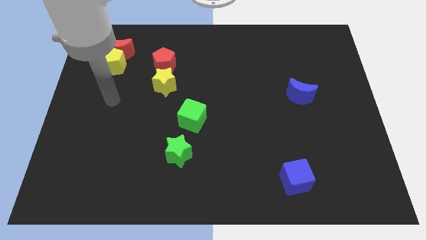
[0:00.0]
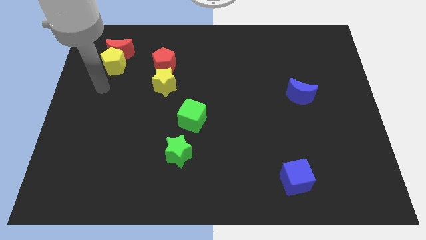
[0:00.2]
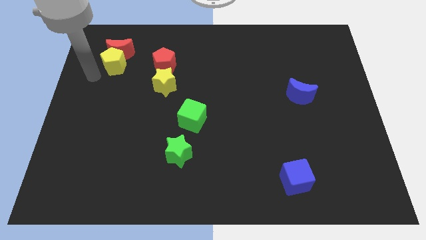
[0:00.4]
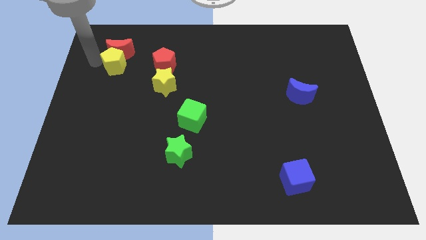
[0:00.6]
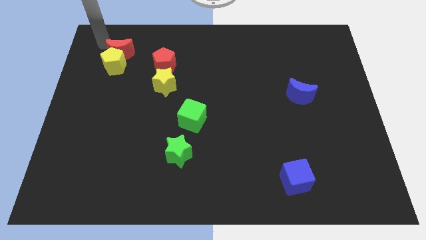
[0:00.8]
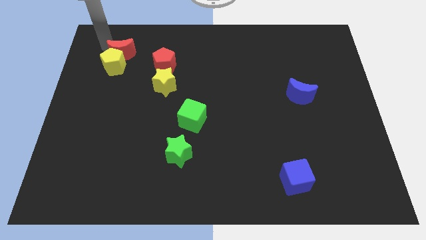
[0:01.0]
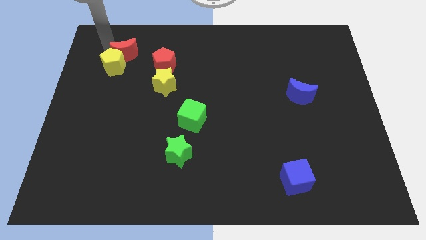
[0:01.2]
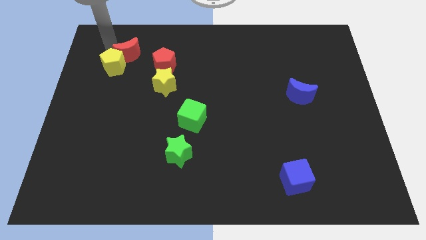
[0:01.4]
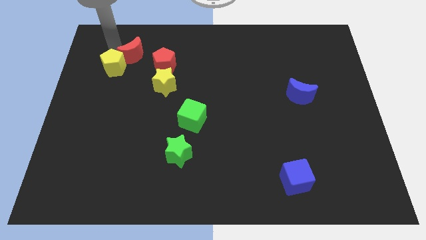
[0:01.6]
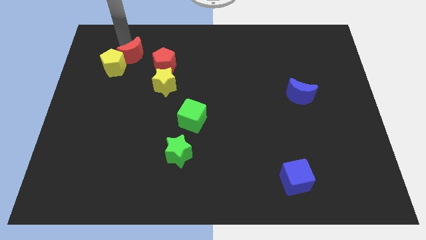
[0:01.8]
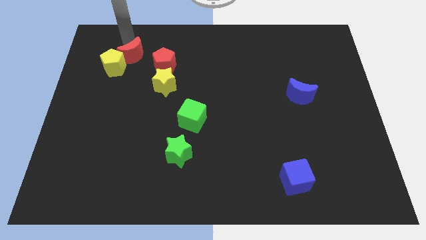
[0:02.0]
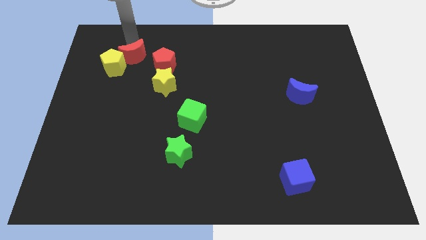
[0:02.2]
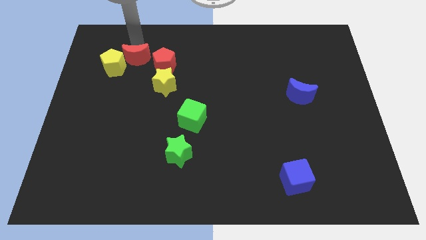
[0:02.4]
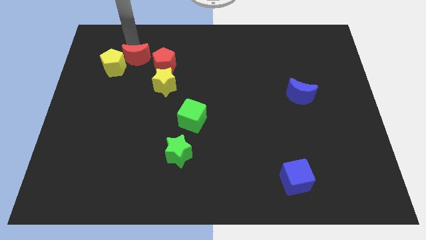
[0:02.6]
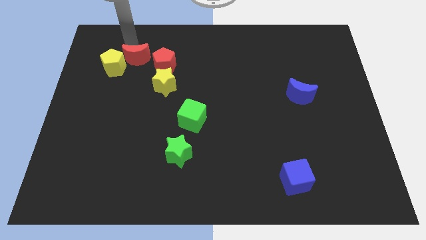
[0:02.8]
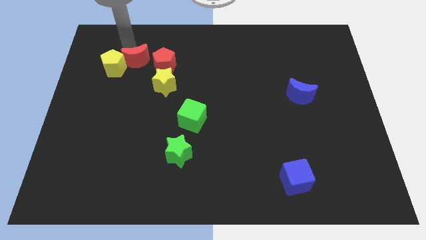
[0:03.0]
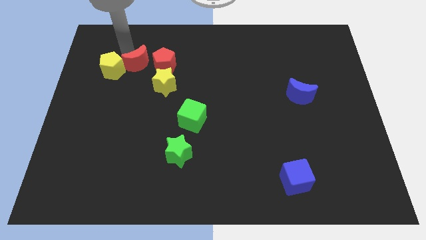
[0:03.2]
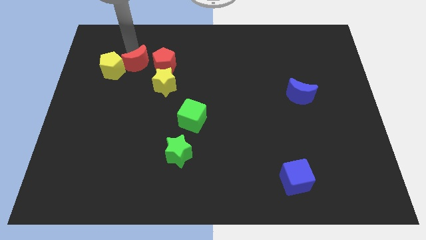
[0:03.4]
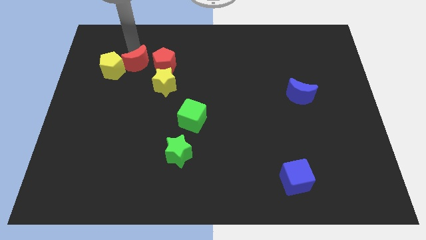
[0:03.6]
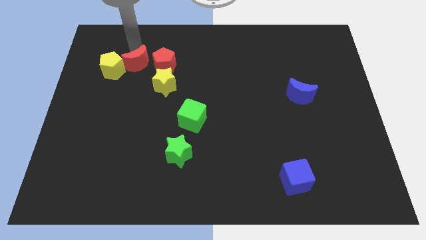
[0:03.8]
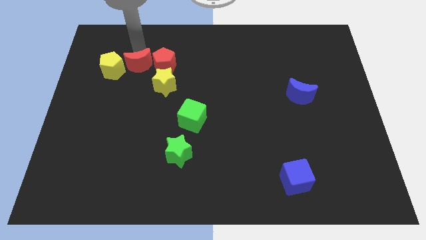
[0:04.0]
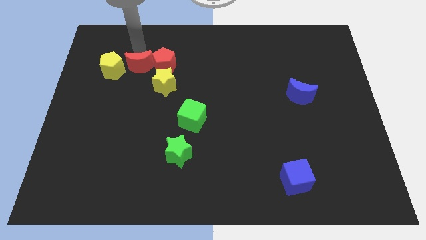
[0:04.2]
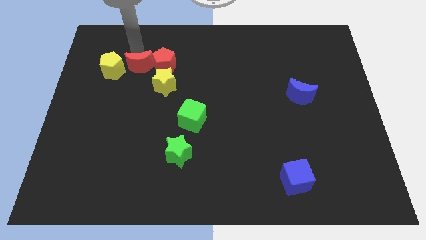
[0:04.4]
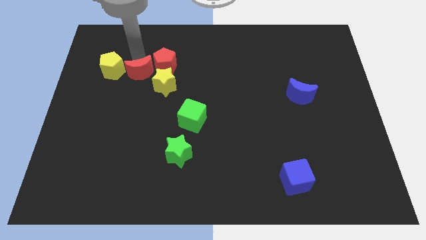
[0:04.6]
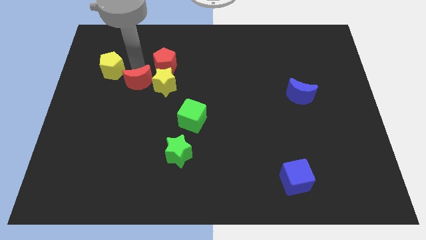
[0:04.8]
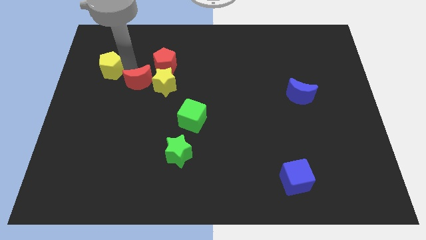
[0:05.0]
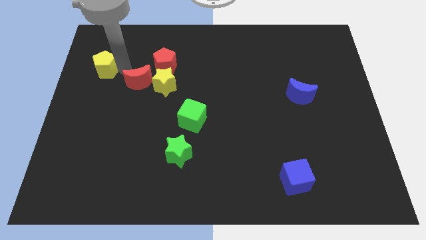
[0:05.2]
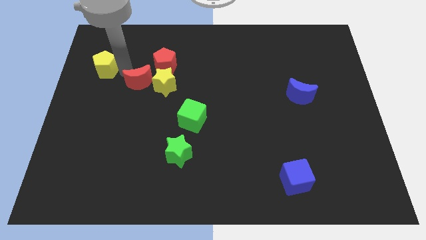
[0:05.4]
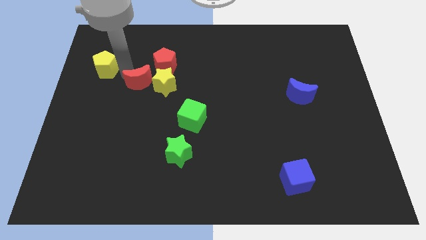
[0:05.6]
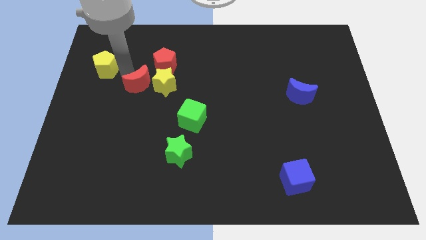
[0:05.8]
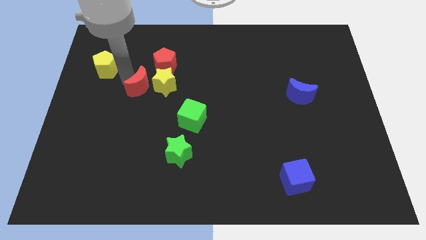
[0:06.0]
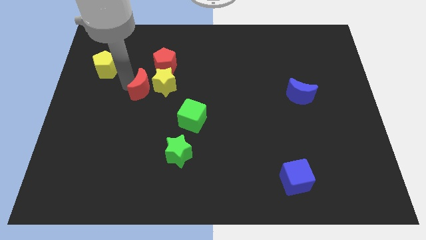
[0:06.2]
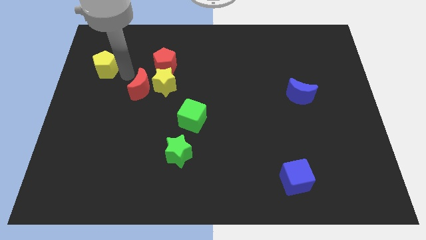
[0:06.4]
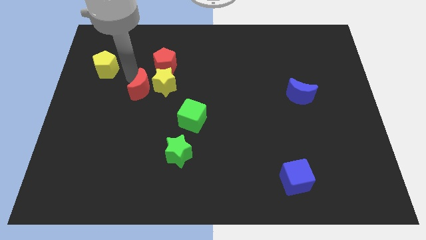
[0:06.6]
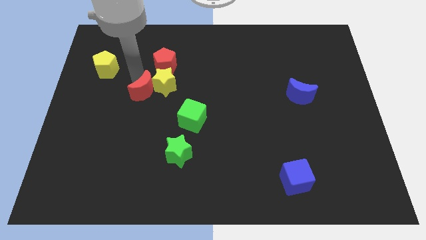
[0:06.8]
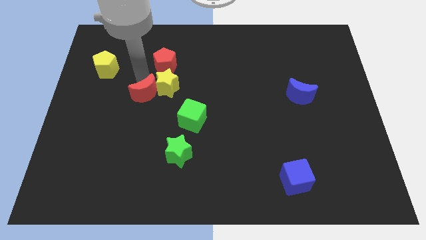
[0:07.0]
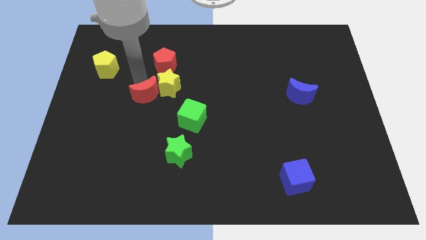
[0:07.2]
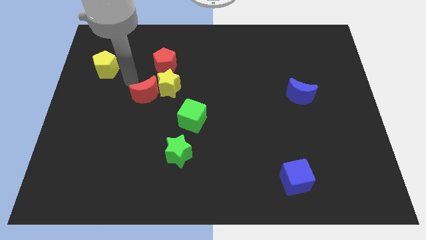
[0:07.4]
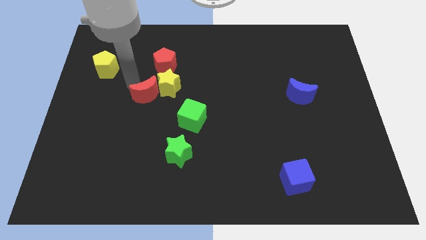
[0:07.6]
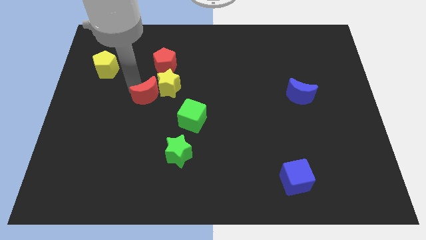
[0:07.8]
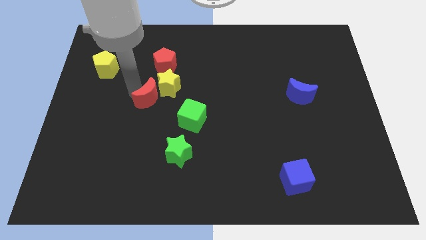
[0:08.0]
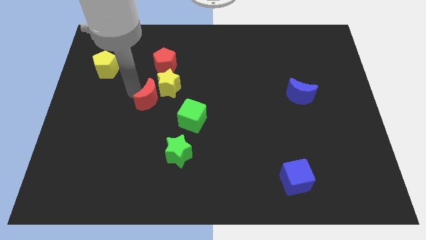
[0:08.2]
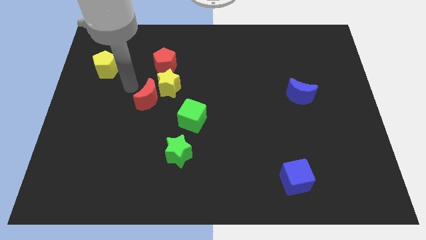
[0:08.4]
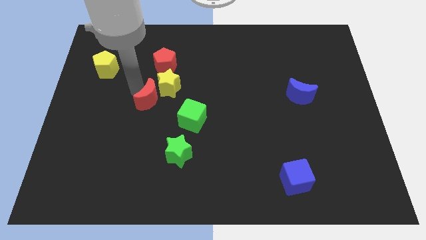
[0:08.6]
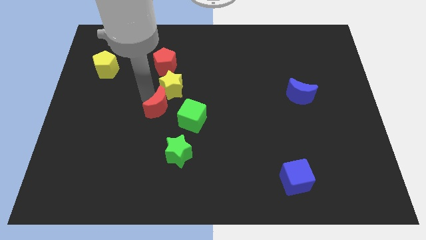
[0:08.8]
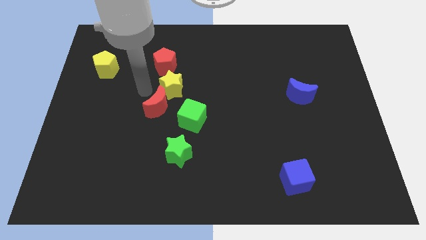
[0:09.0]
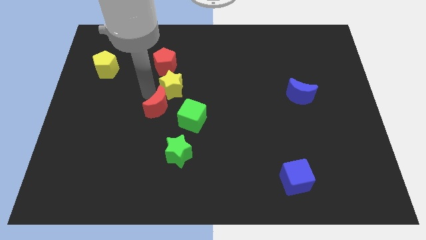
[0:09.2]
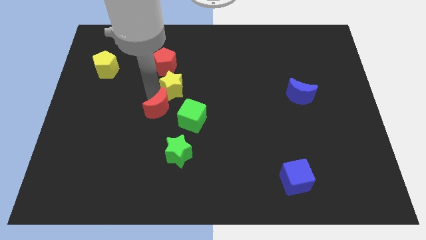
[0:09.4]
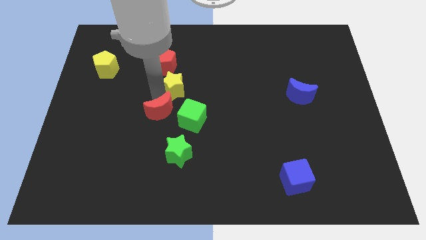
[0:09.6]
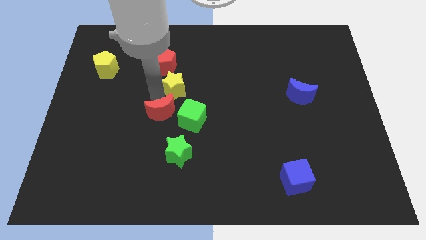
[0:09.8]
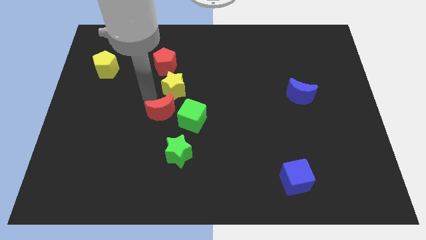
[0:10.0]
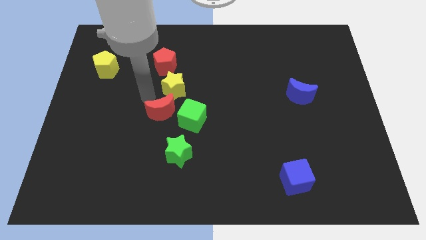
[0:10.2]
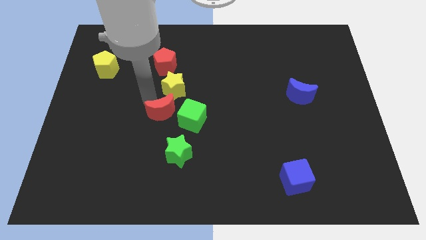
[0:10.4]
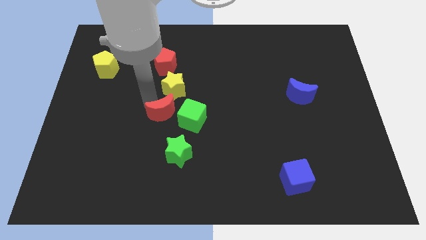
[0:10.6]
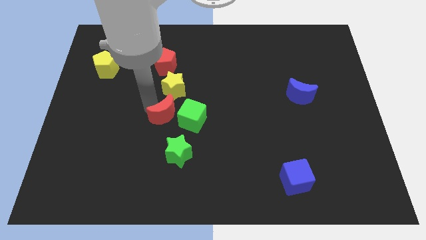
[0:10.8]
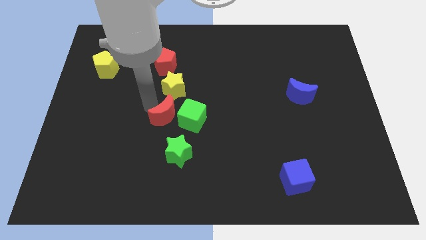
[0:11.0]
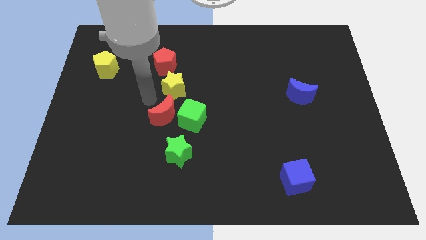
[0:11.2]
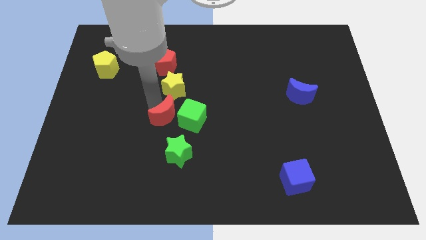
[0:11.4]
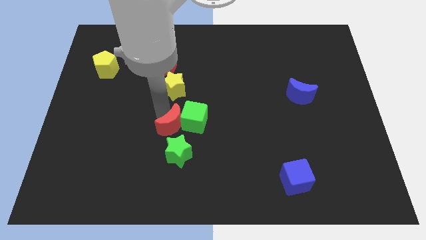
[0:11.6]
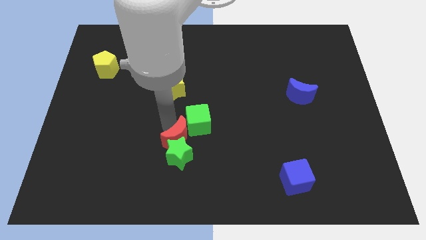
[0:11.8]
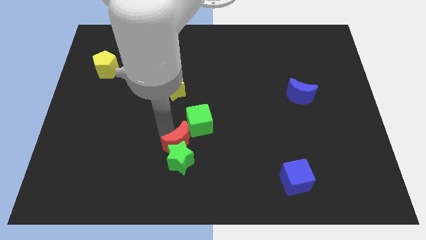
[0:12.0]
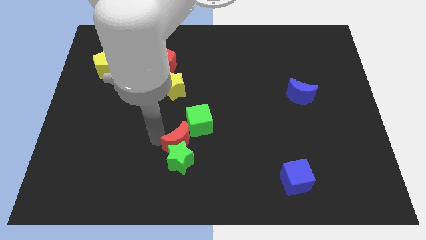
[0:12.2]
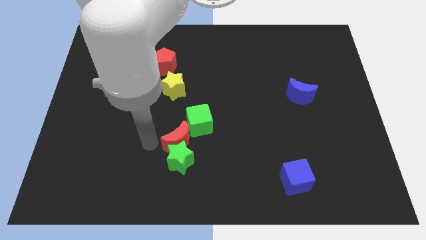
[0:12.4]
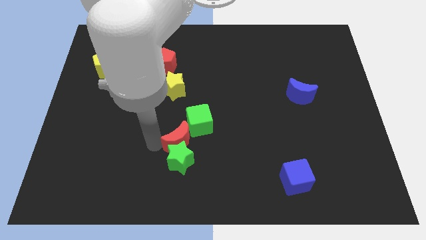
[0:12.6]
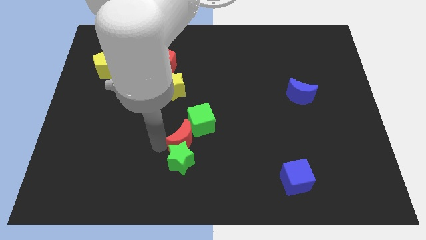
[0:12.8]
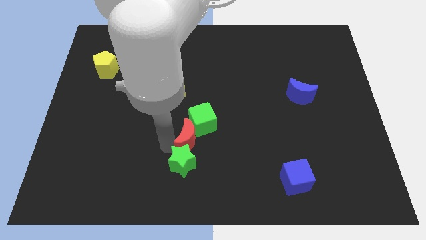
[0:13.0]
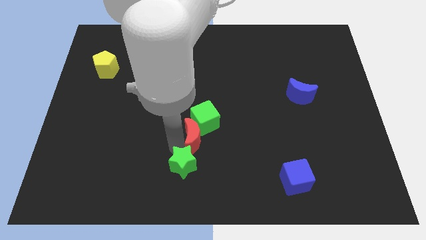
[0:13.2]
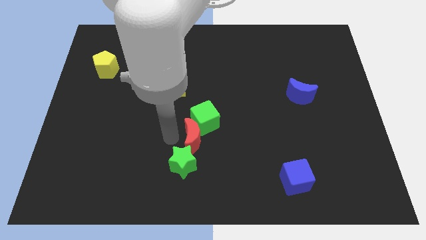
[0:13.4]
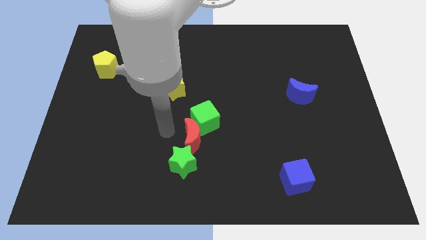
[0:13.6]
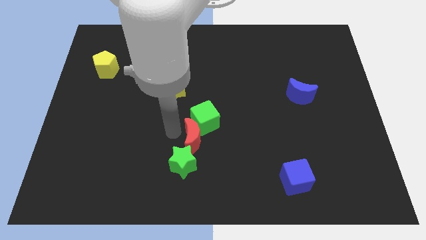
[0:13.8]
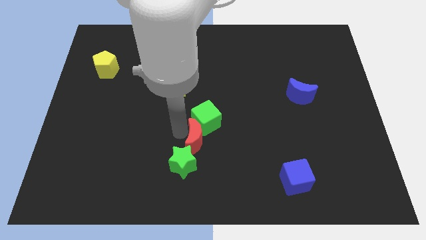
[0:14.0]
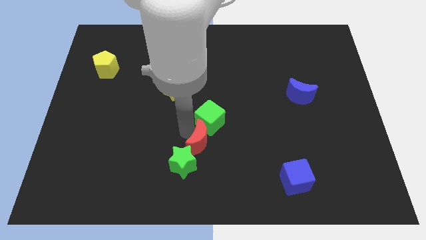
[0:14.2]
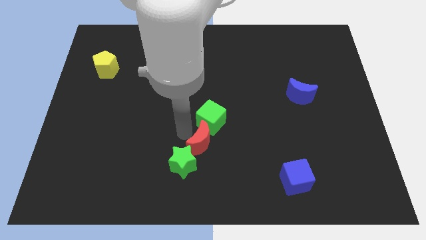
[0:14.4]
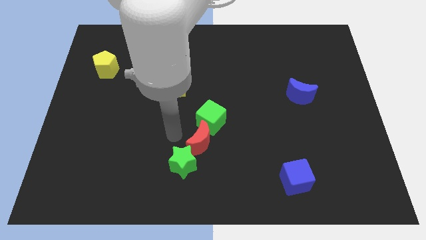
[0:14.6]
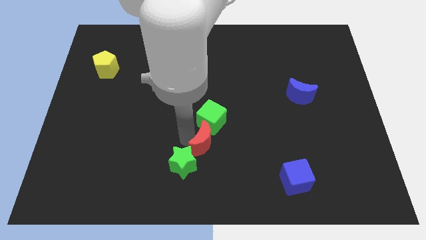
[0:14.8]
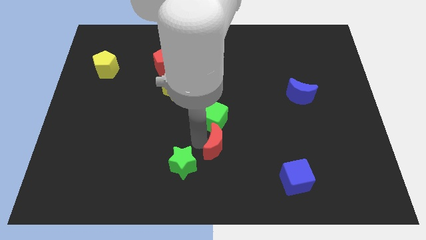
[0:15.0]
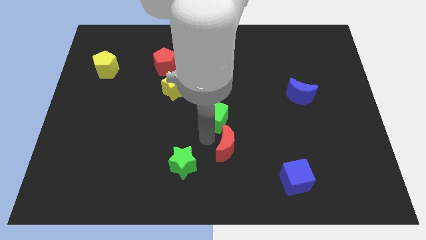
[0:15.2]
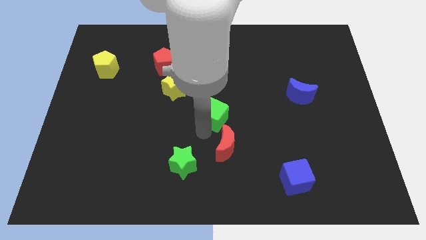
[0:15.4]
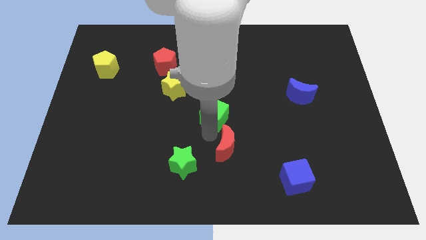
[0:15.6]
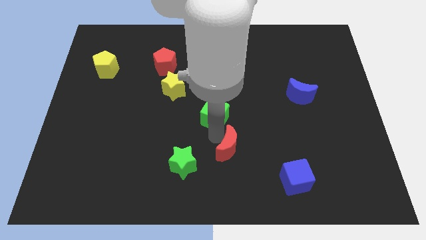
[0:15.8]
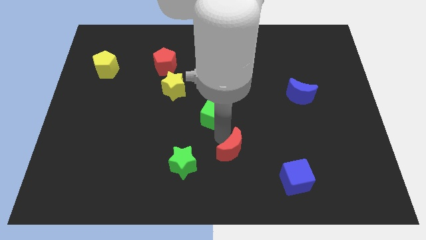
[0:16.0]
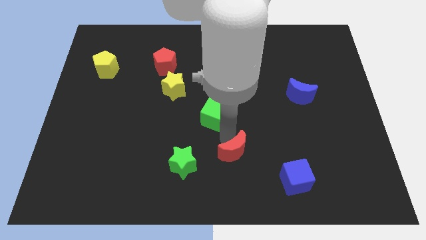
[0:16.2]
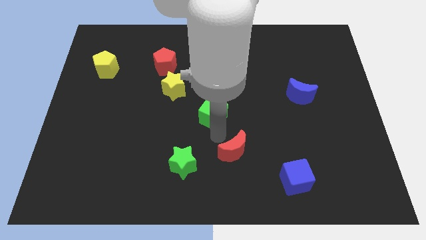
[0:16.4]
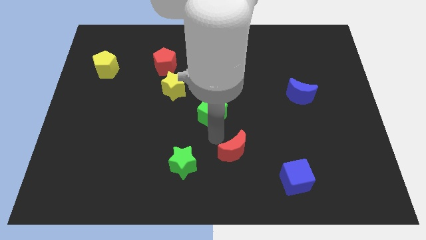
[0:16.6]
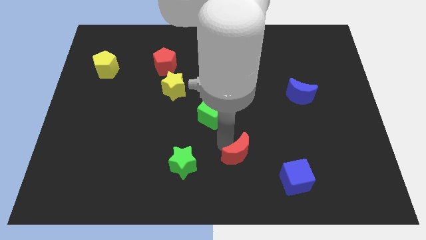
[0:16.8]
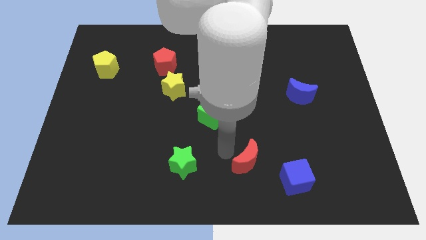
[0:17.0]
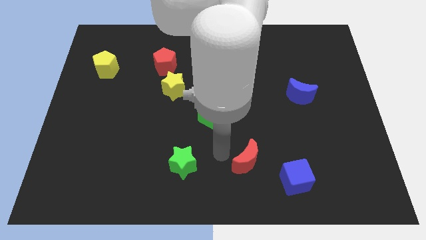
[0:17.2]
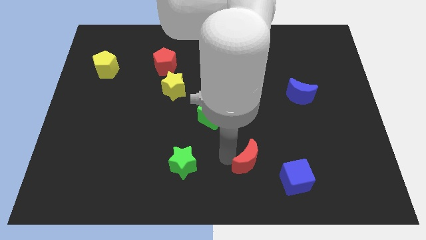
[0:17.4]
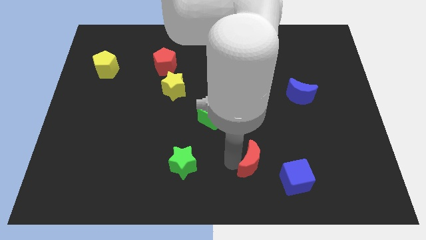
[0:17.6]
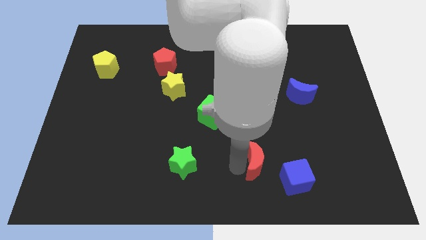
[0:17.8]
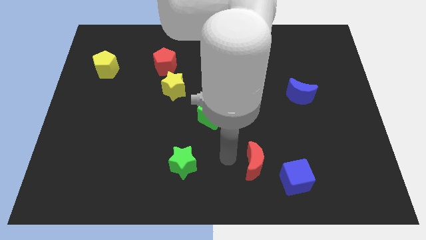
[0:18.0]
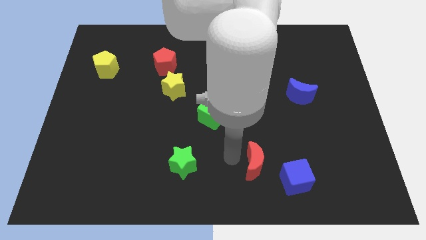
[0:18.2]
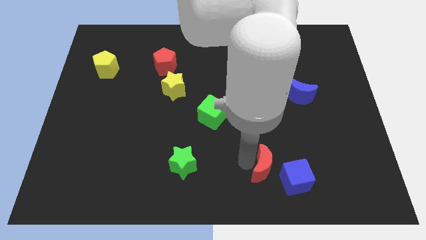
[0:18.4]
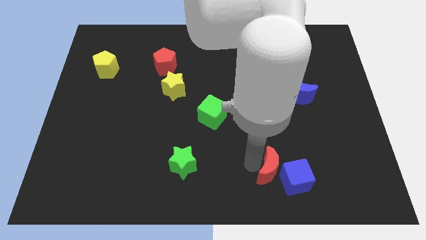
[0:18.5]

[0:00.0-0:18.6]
push the red moon towards the blue cube
